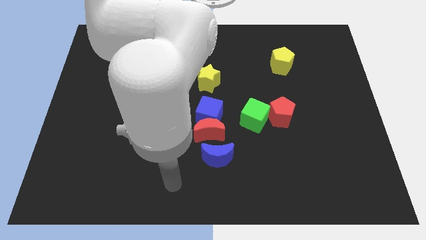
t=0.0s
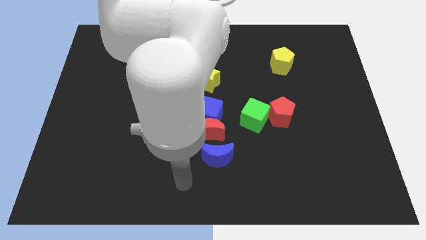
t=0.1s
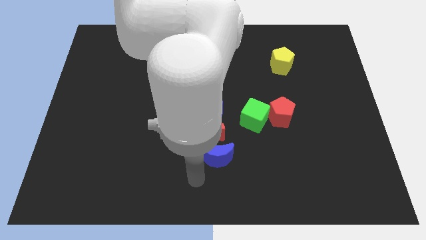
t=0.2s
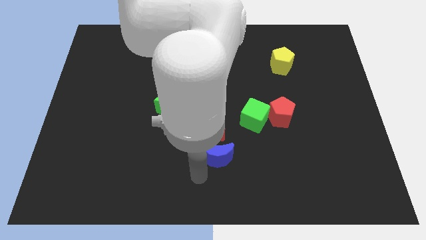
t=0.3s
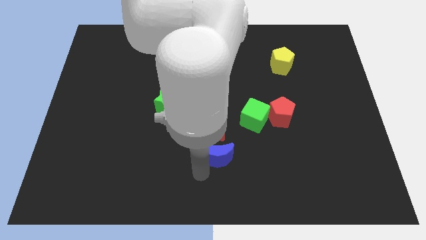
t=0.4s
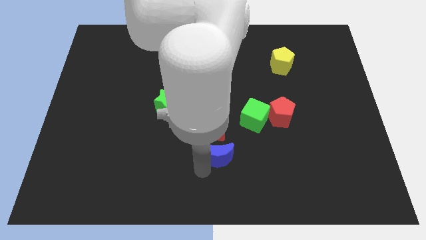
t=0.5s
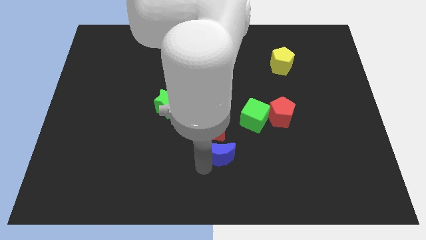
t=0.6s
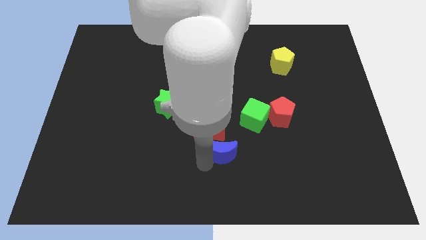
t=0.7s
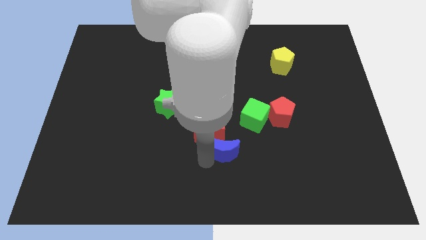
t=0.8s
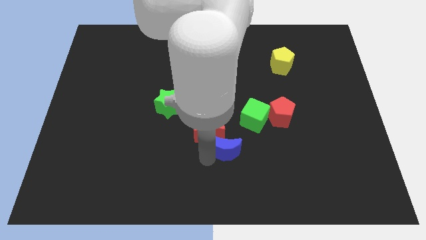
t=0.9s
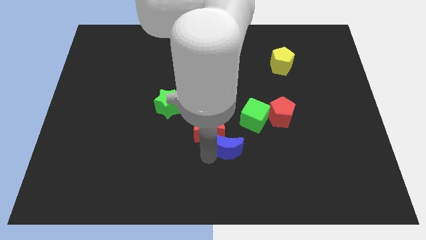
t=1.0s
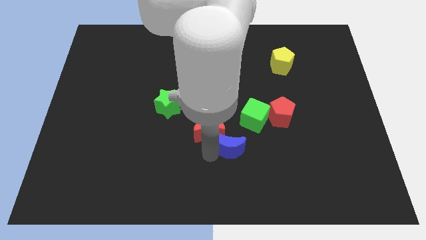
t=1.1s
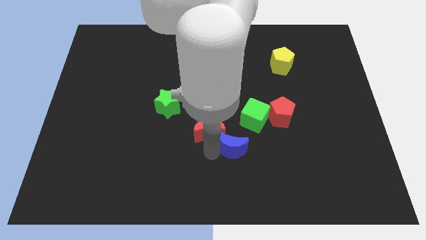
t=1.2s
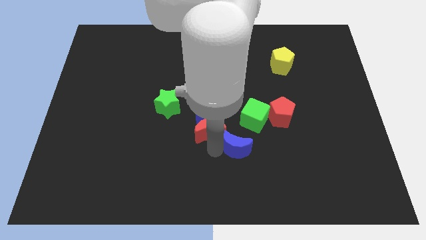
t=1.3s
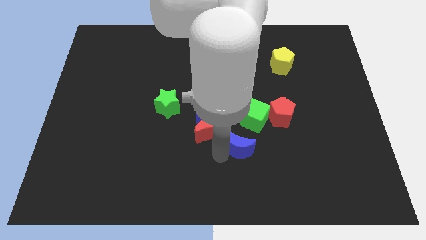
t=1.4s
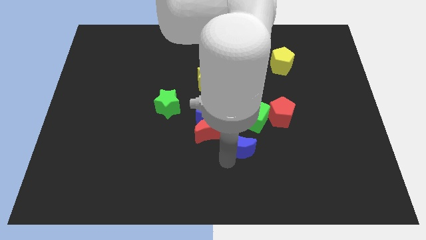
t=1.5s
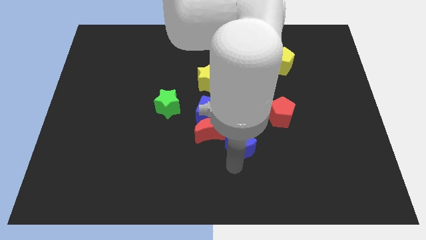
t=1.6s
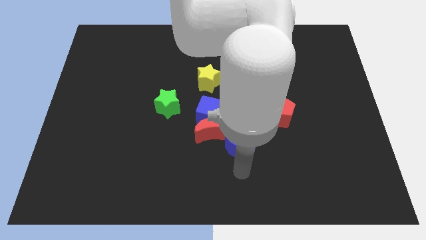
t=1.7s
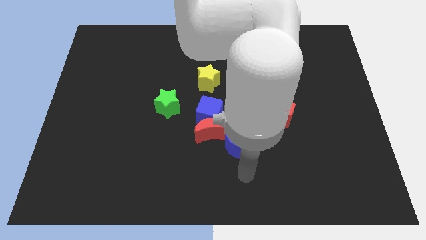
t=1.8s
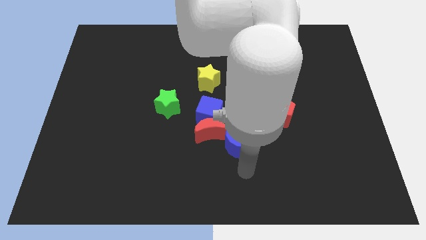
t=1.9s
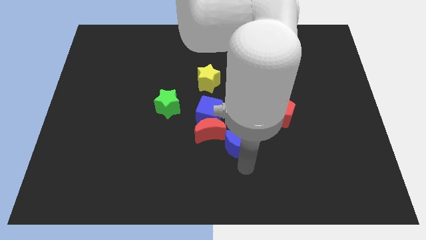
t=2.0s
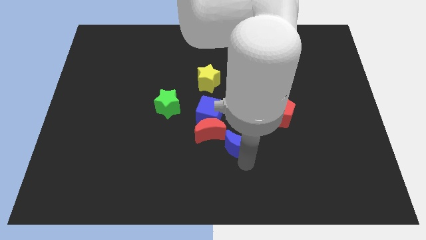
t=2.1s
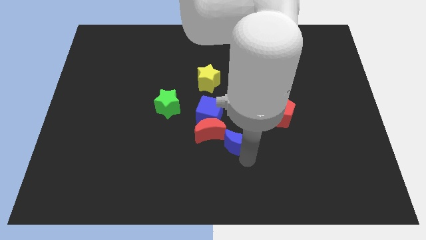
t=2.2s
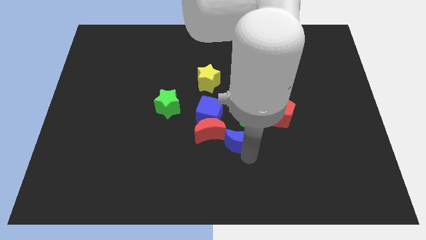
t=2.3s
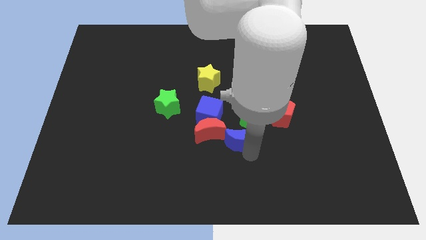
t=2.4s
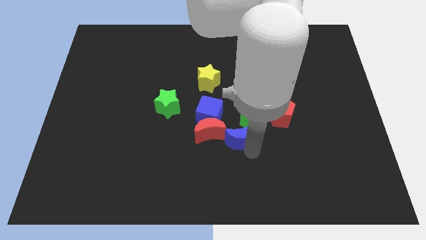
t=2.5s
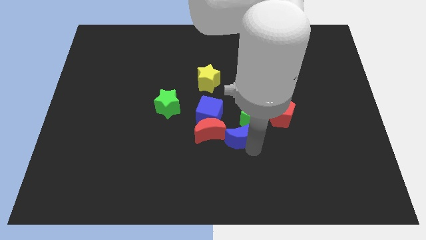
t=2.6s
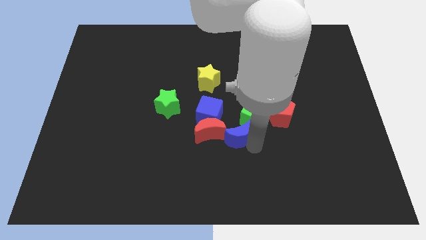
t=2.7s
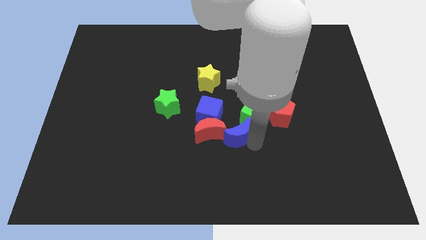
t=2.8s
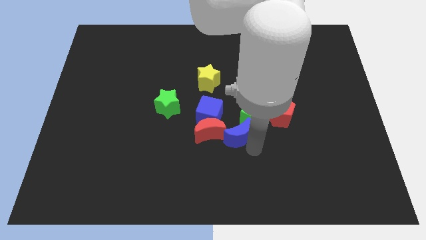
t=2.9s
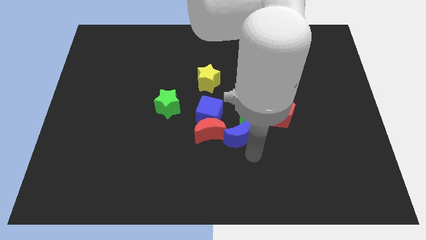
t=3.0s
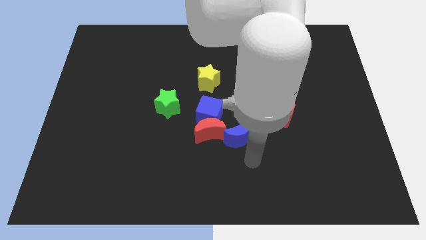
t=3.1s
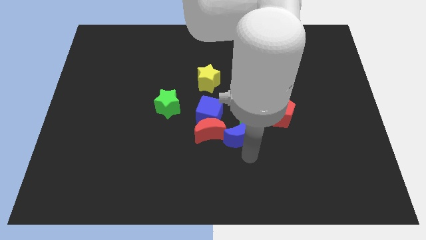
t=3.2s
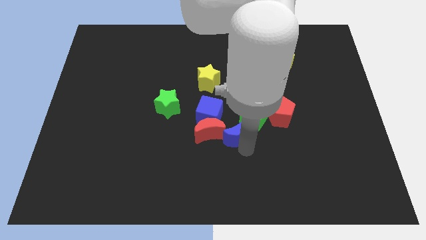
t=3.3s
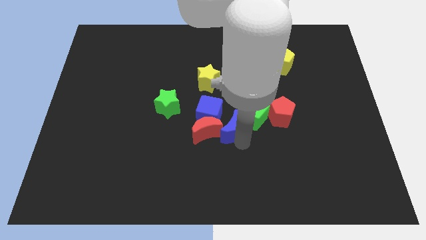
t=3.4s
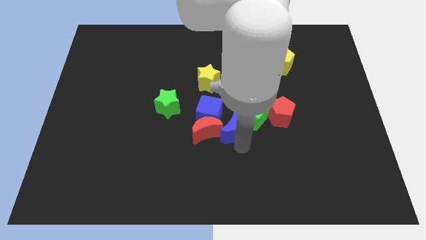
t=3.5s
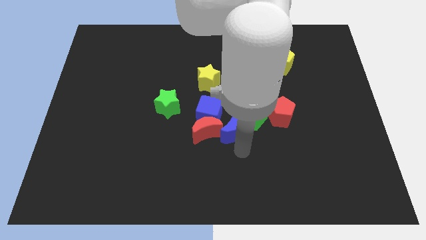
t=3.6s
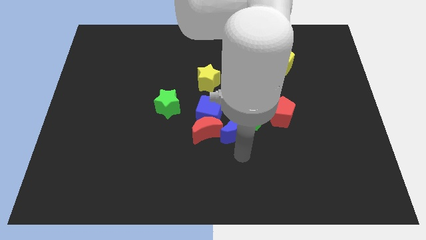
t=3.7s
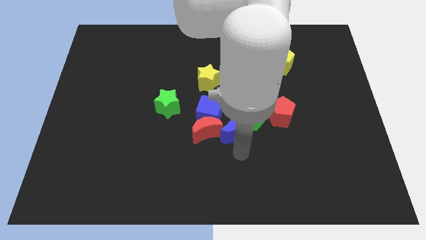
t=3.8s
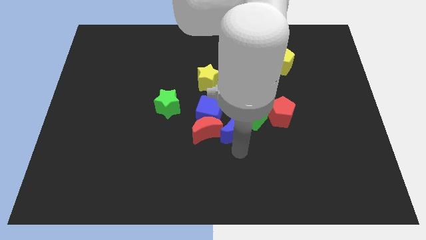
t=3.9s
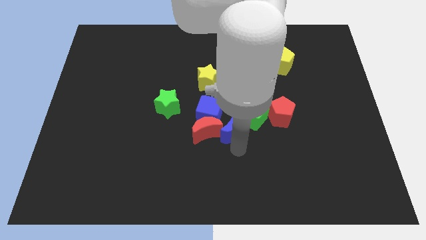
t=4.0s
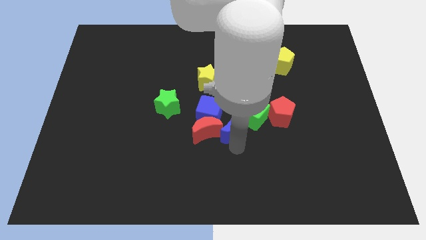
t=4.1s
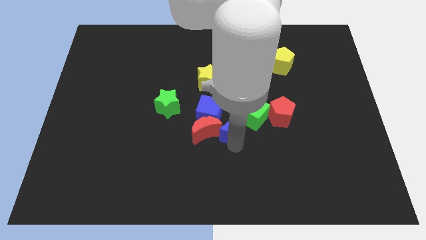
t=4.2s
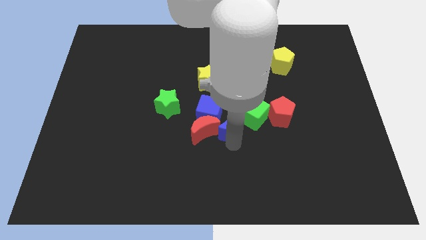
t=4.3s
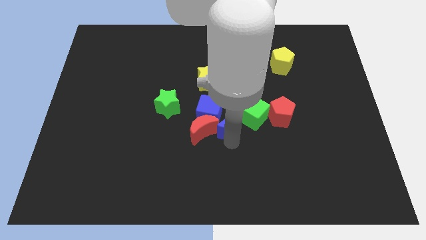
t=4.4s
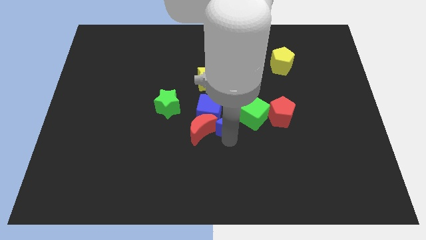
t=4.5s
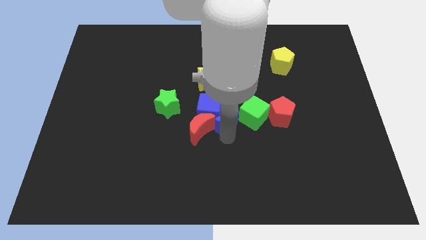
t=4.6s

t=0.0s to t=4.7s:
move the blue moon just right of the green star

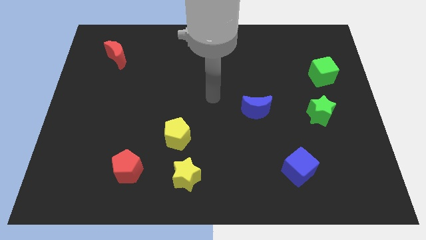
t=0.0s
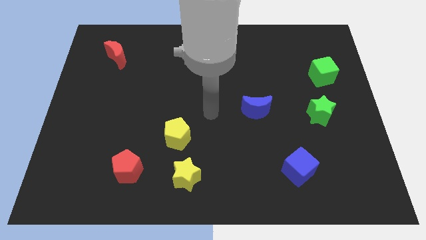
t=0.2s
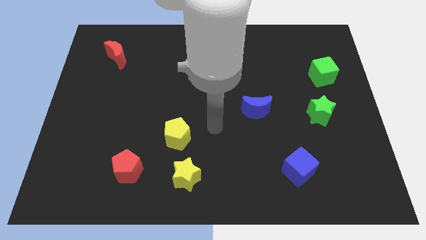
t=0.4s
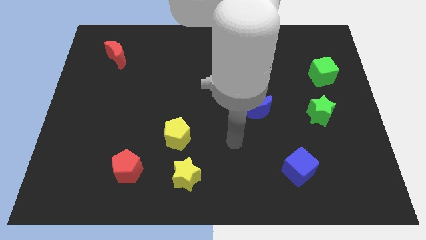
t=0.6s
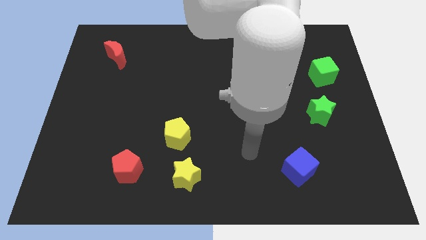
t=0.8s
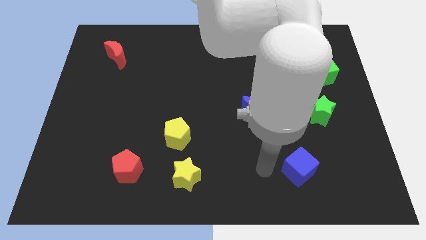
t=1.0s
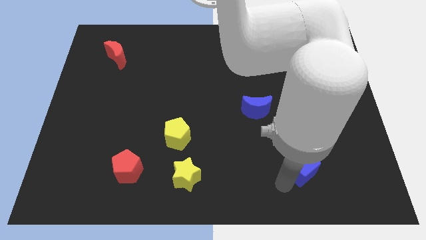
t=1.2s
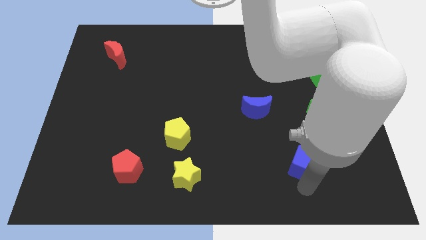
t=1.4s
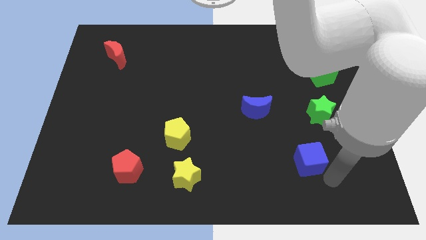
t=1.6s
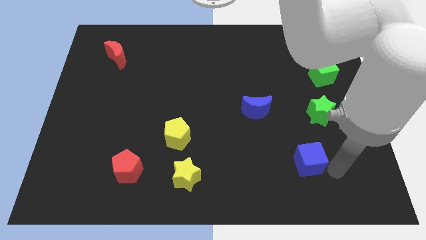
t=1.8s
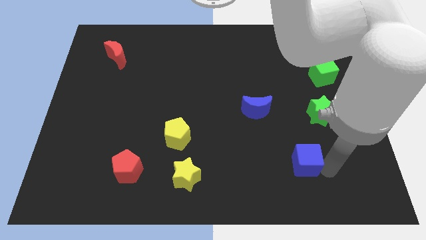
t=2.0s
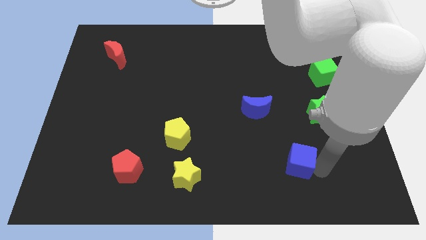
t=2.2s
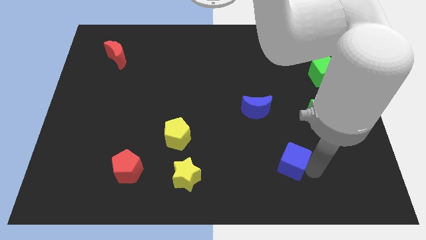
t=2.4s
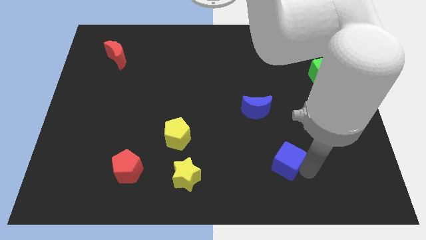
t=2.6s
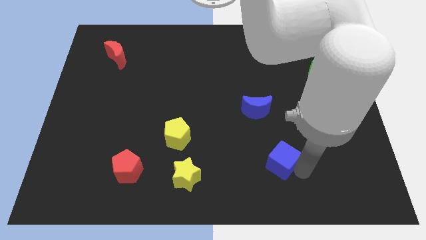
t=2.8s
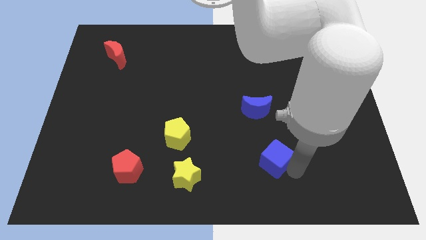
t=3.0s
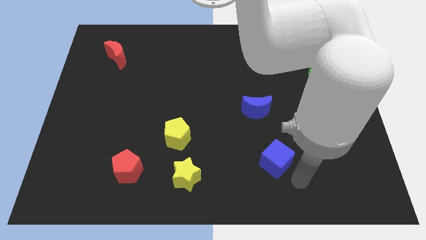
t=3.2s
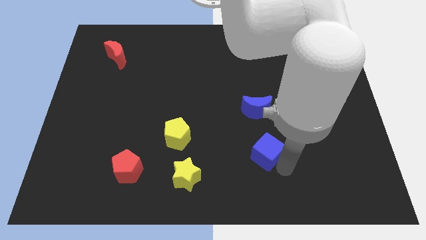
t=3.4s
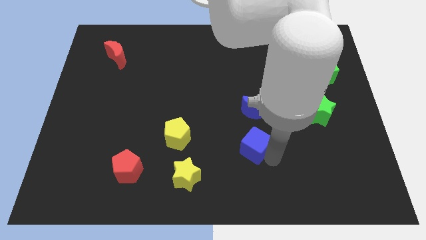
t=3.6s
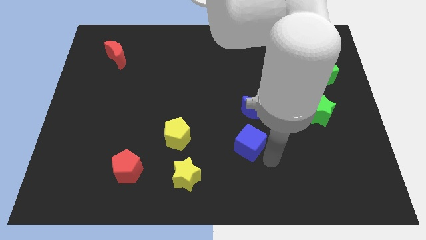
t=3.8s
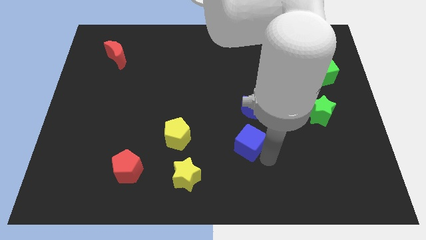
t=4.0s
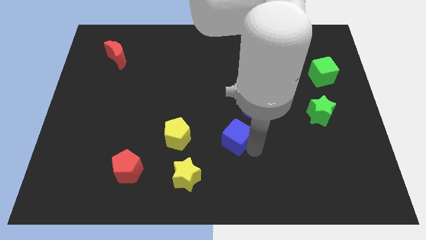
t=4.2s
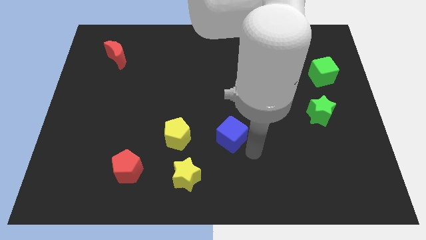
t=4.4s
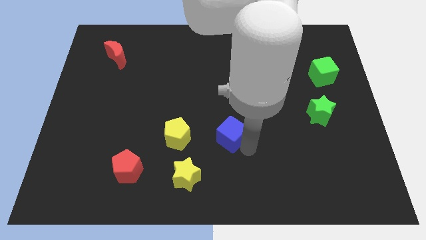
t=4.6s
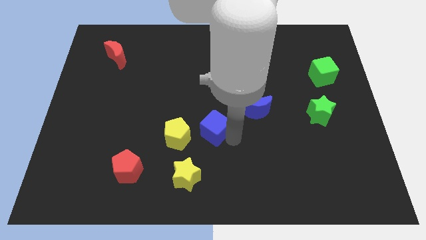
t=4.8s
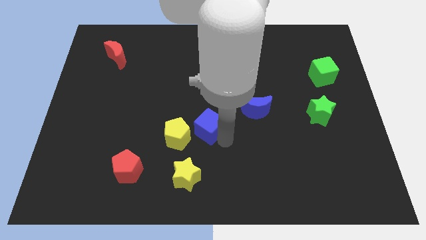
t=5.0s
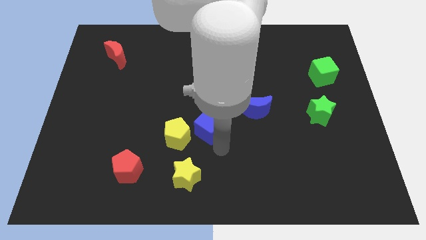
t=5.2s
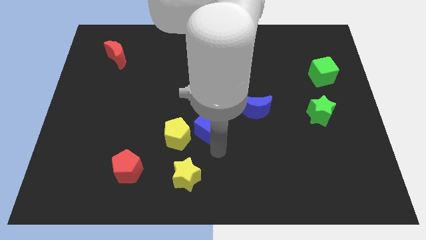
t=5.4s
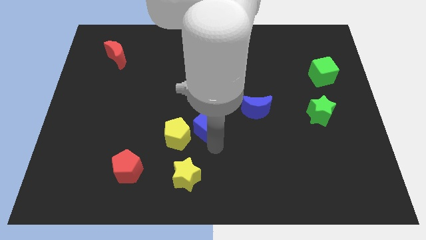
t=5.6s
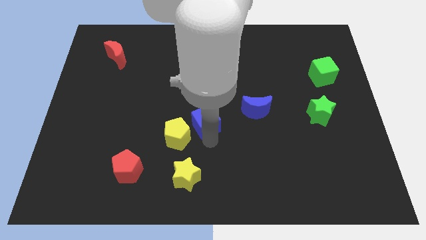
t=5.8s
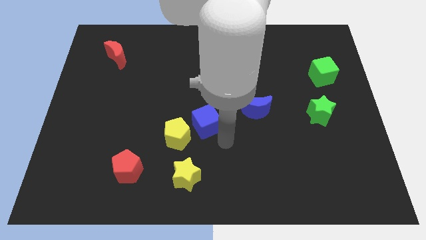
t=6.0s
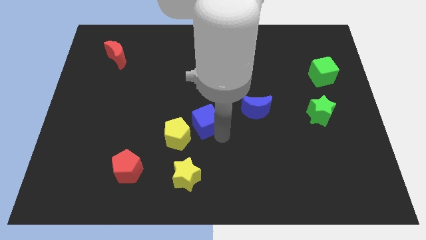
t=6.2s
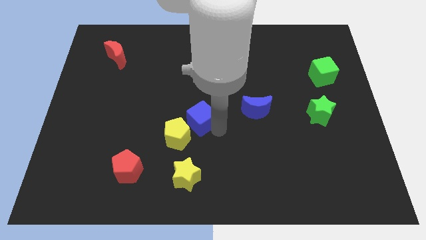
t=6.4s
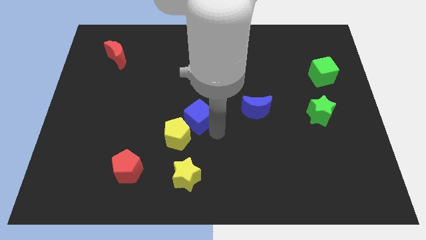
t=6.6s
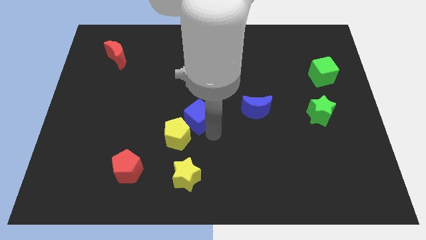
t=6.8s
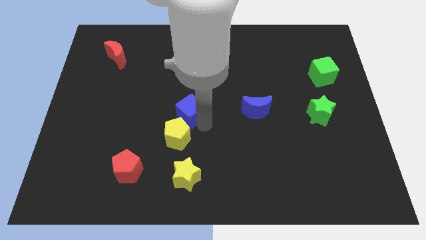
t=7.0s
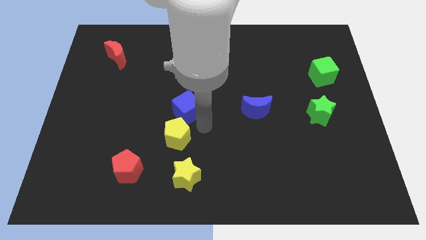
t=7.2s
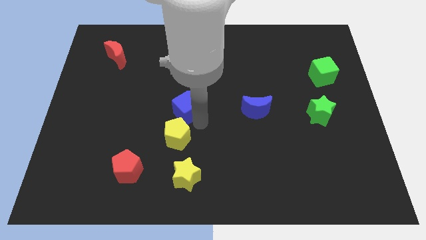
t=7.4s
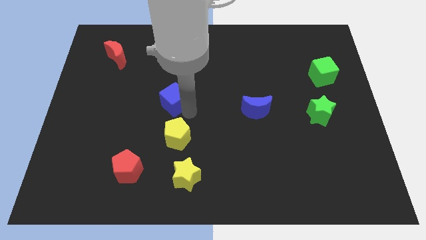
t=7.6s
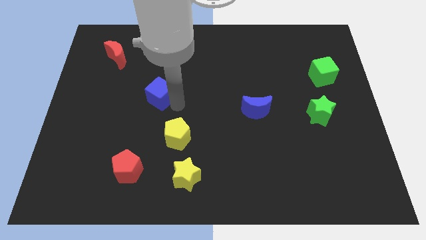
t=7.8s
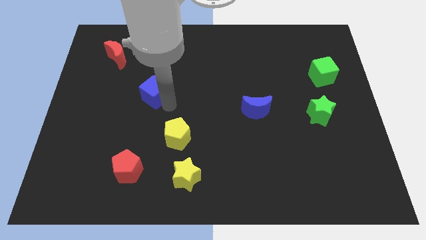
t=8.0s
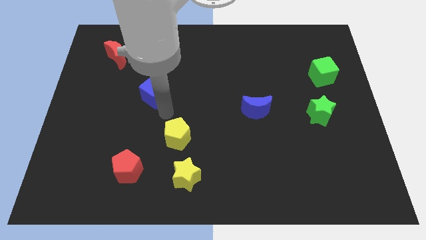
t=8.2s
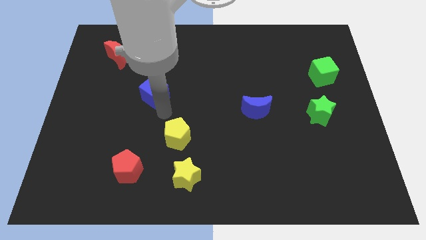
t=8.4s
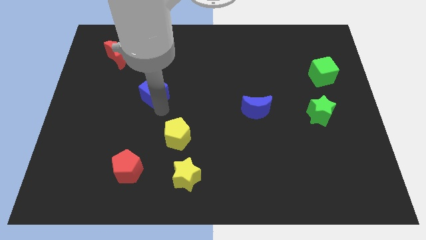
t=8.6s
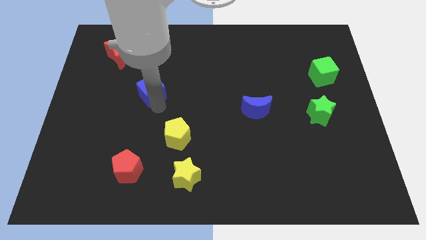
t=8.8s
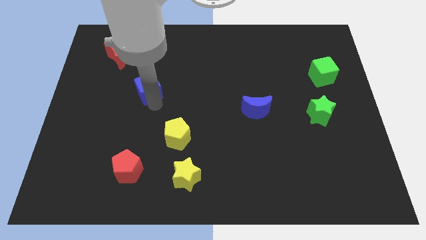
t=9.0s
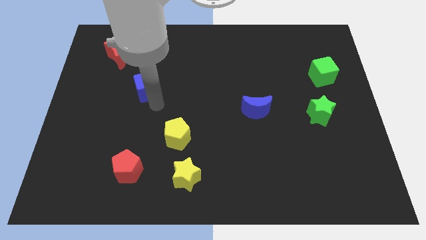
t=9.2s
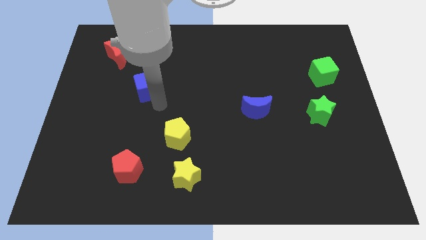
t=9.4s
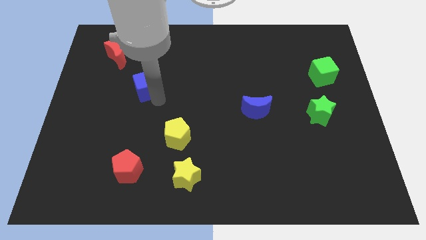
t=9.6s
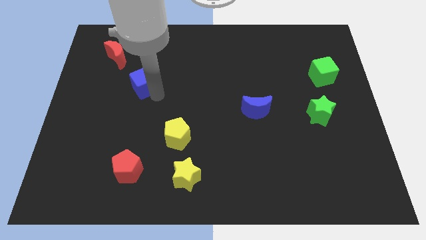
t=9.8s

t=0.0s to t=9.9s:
push the blue cube to the bottom right side of the red moon
